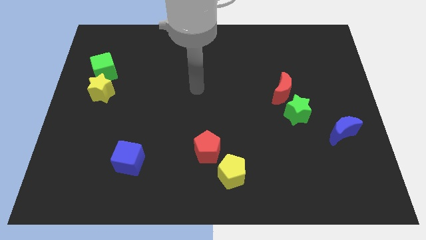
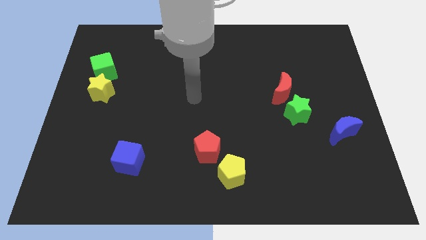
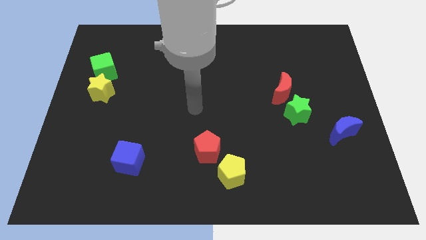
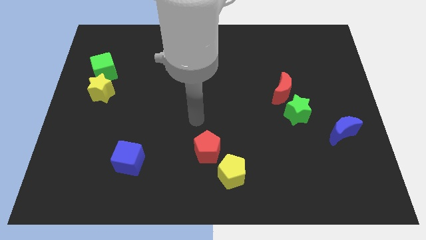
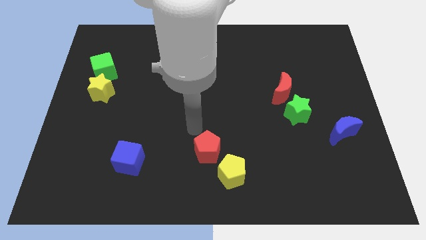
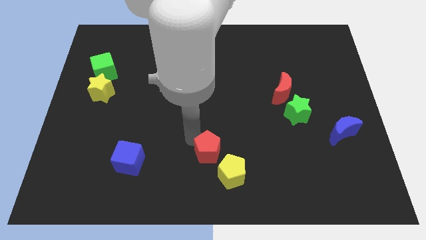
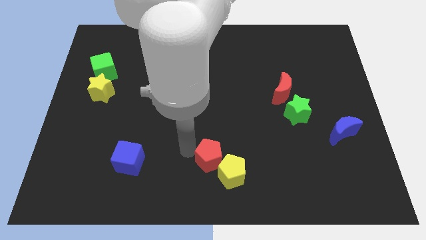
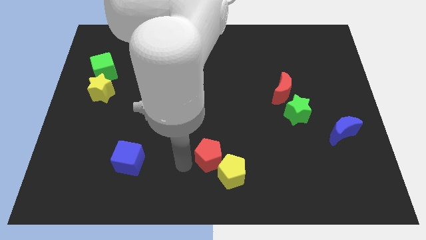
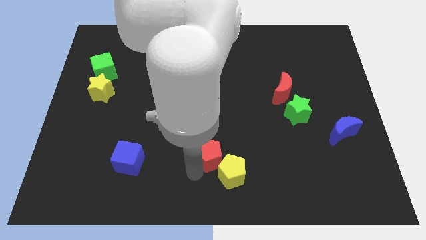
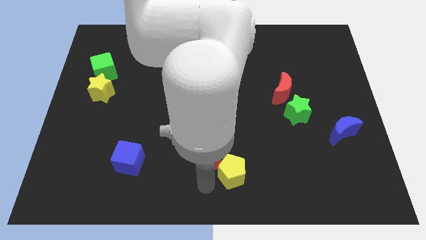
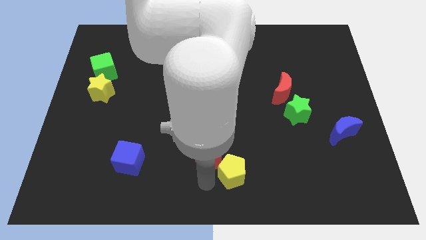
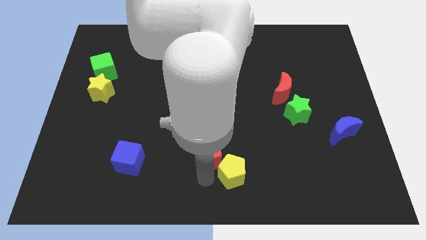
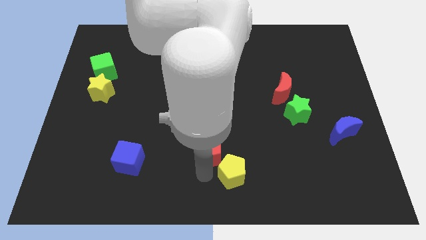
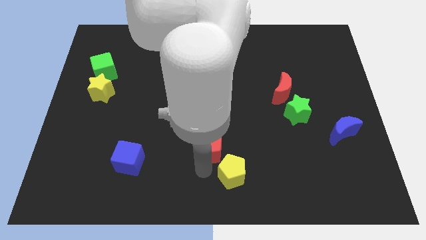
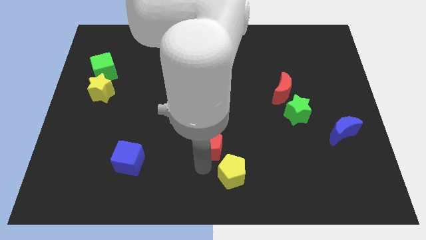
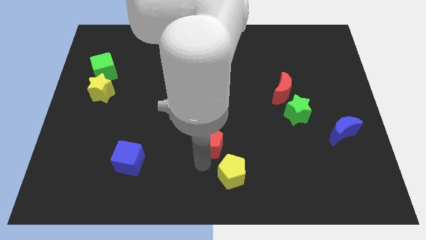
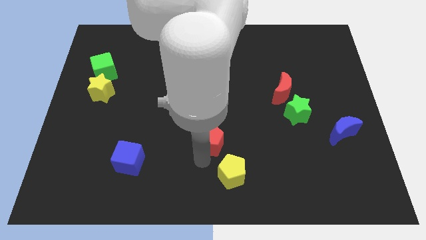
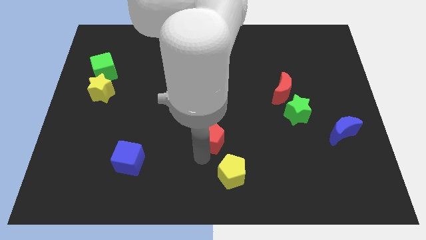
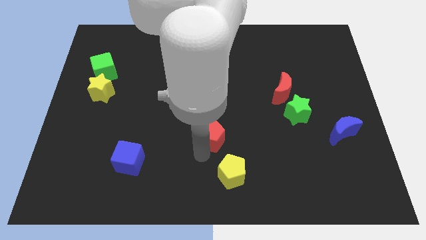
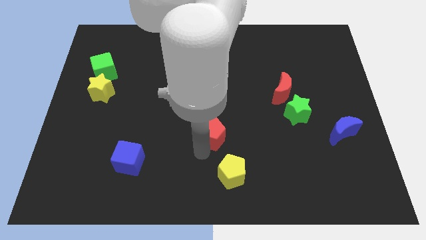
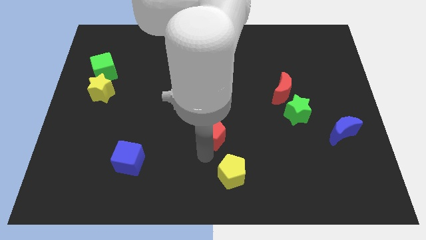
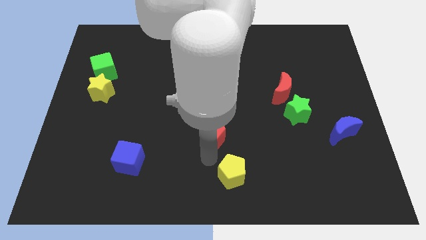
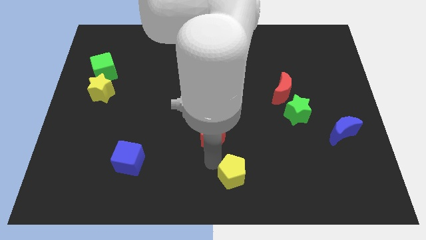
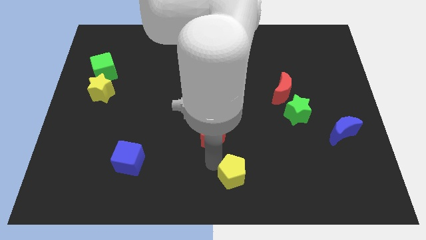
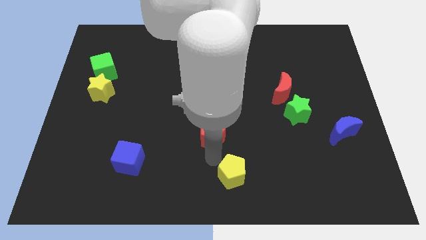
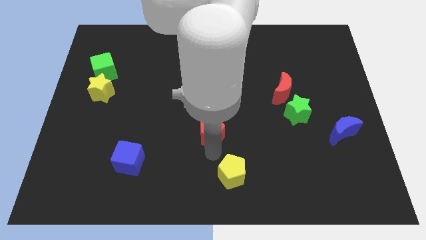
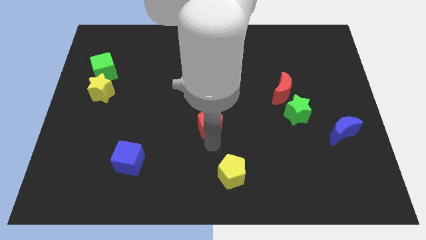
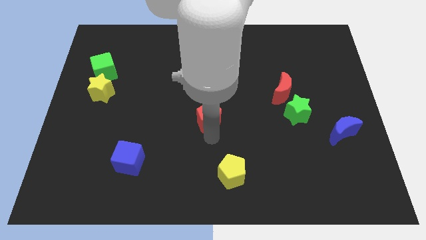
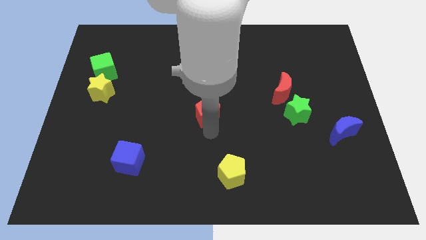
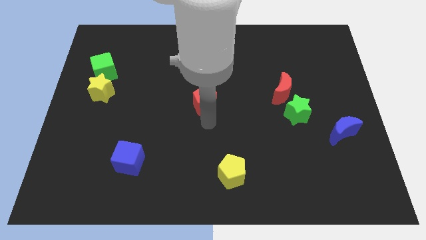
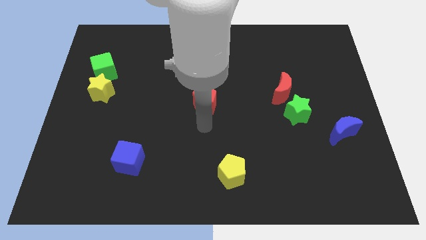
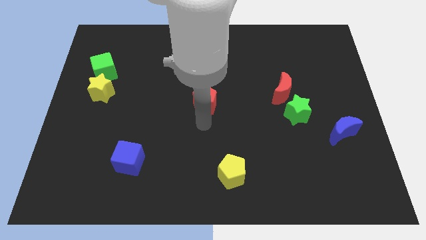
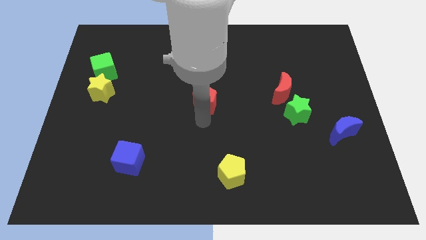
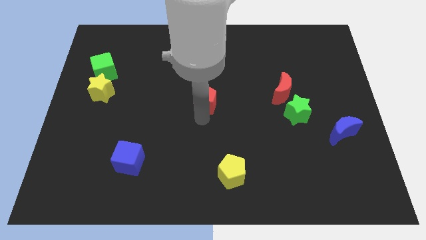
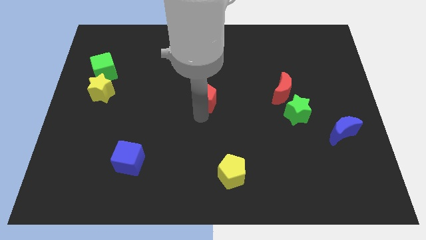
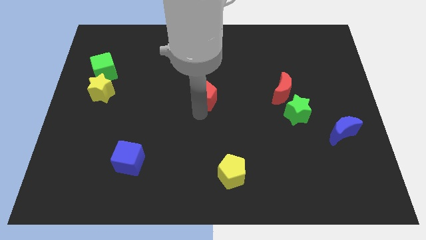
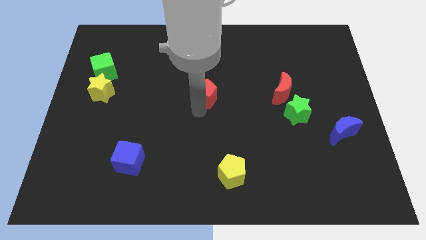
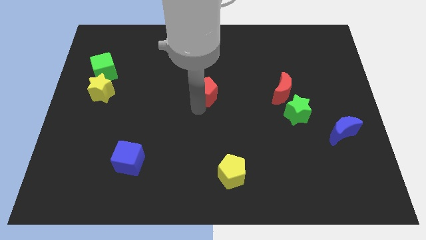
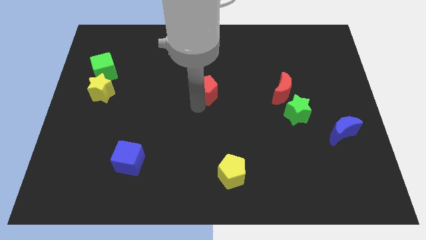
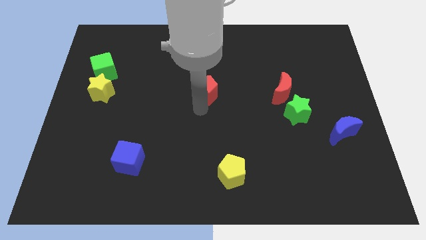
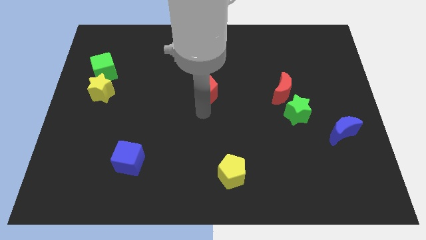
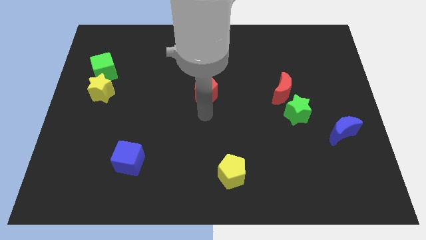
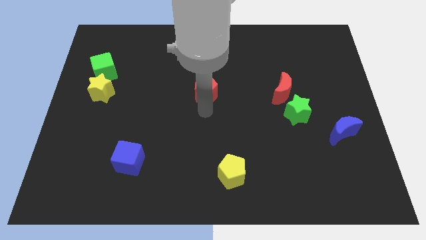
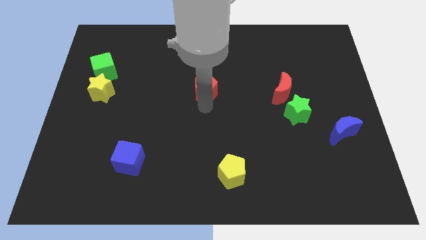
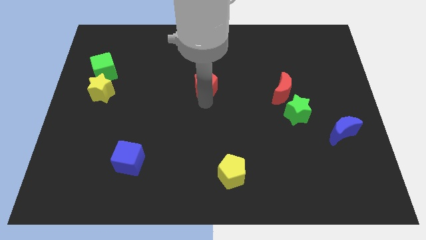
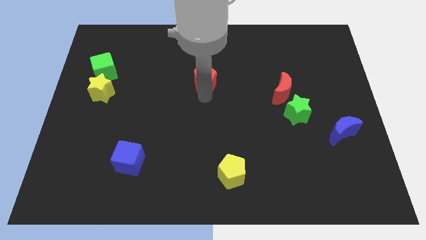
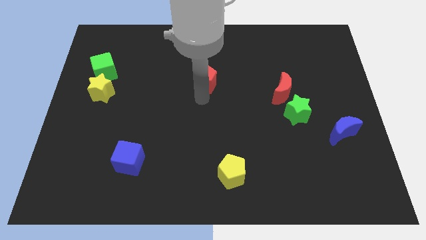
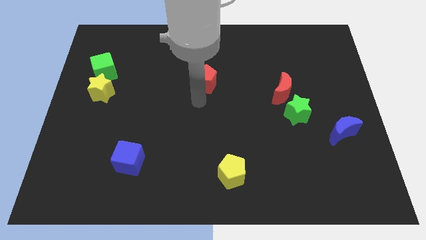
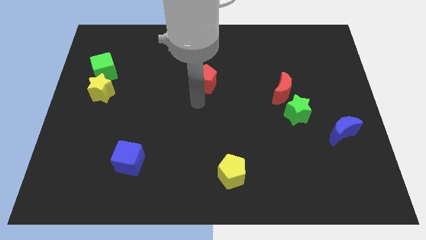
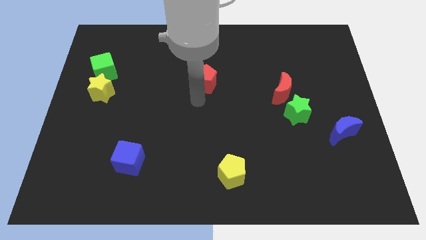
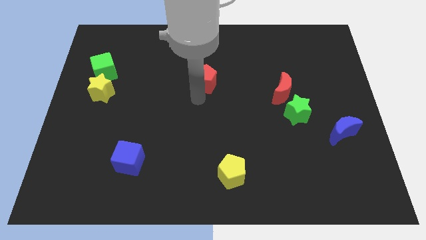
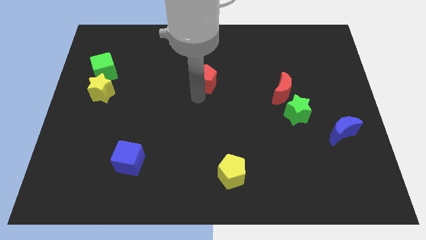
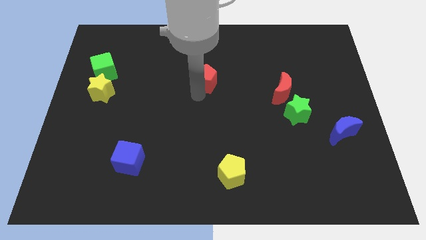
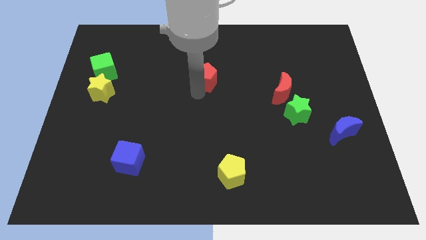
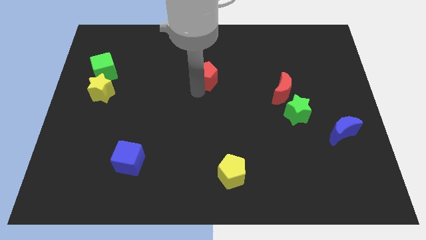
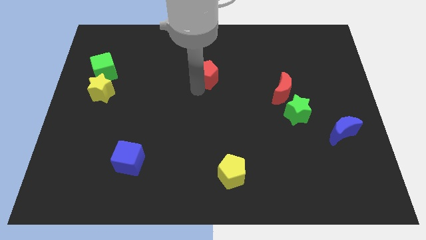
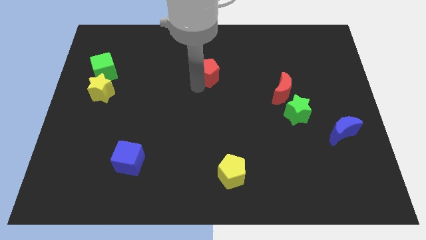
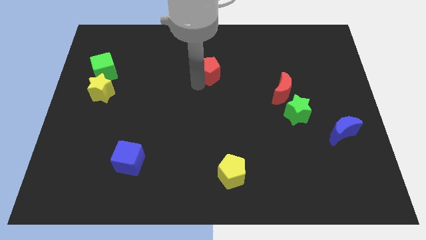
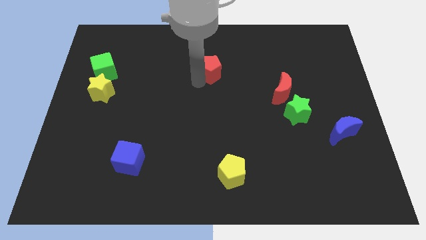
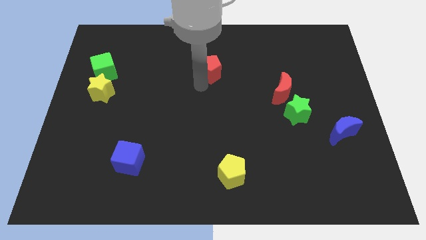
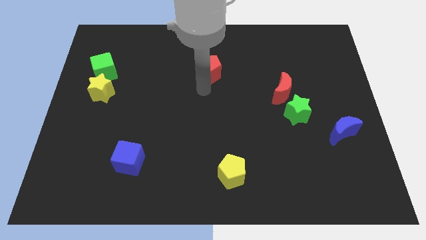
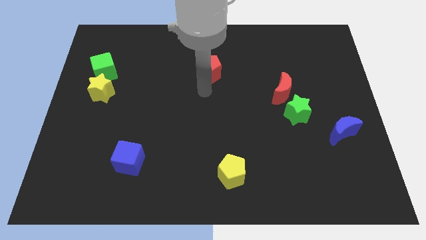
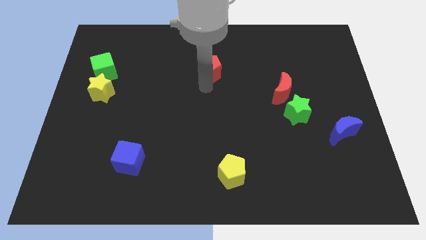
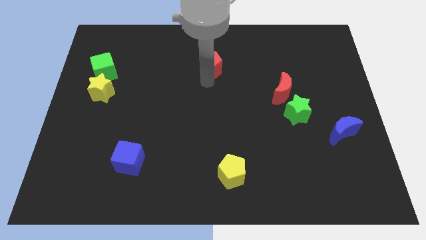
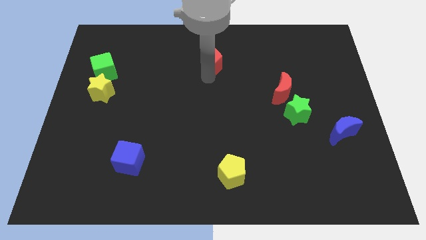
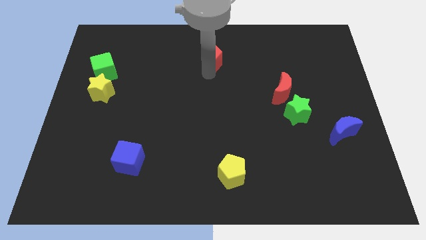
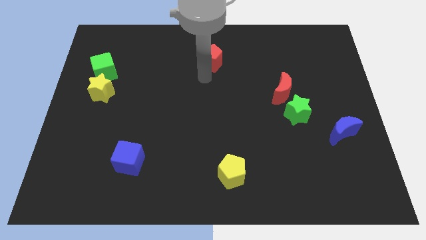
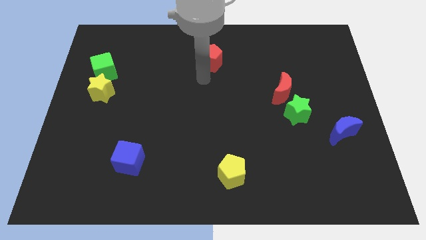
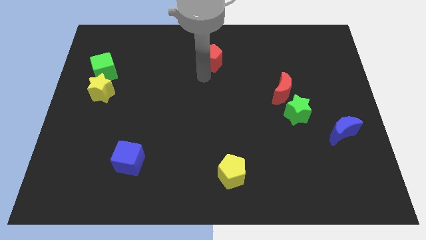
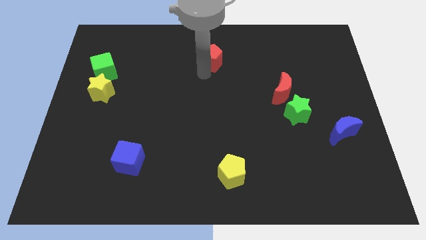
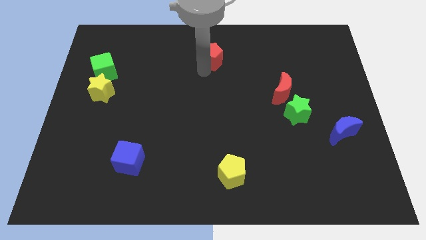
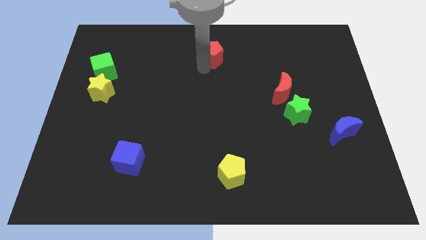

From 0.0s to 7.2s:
slide the red pentagon to the top
